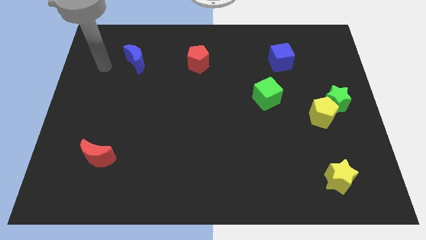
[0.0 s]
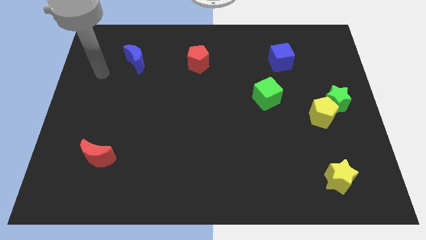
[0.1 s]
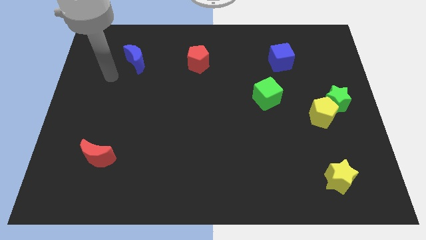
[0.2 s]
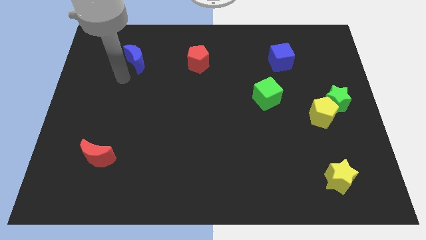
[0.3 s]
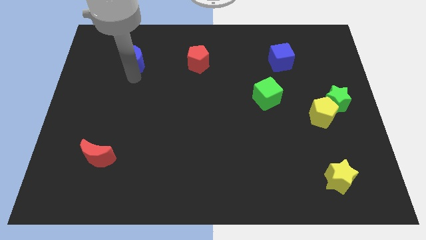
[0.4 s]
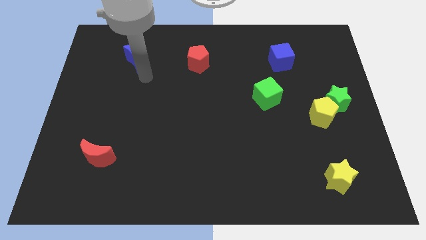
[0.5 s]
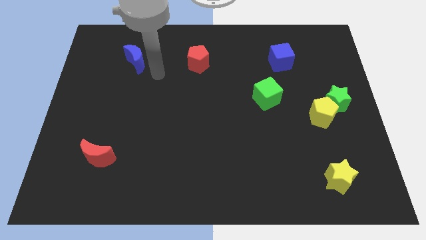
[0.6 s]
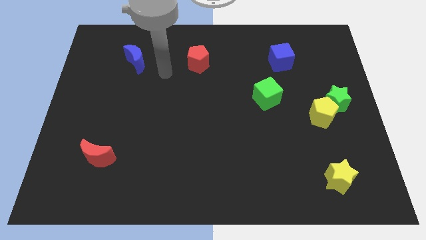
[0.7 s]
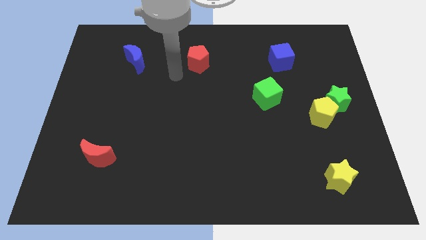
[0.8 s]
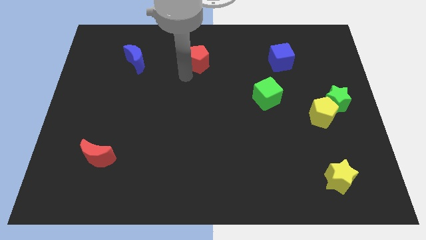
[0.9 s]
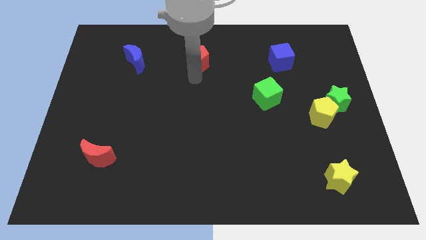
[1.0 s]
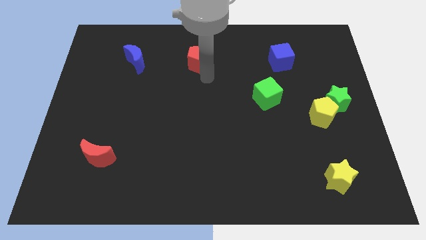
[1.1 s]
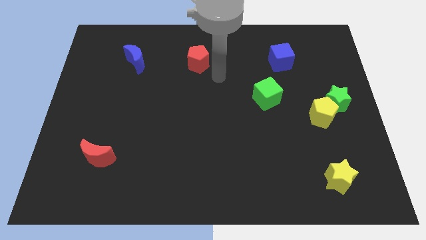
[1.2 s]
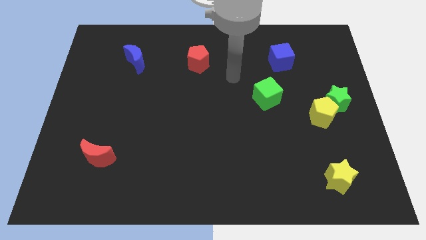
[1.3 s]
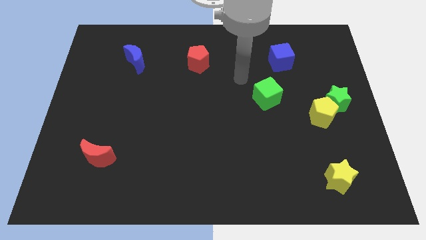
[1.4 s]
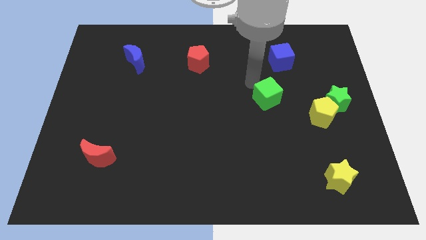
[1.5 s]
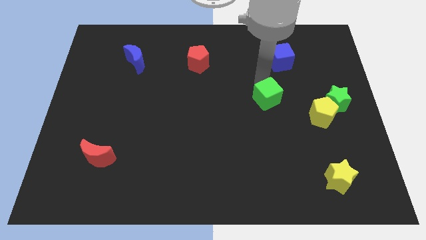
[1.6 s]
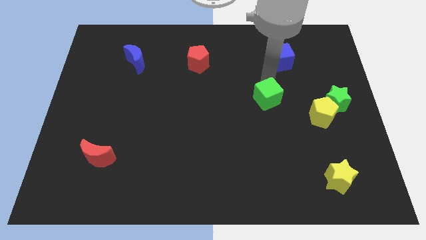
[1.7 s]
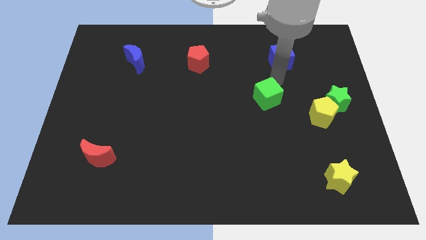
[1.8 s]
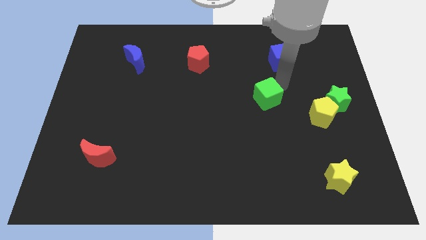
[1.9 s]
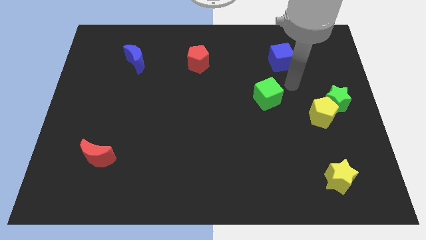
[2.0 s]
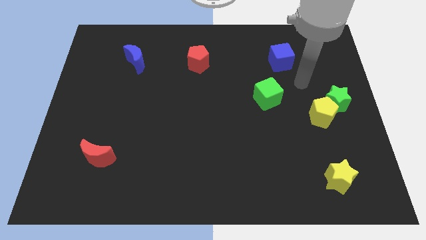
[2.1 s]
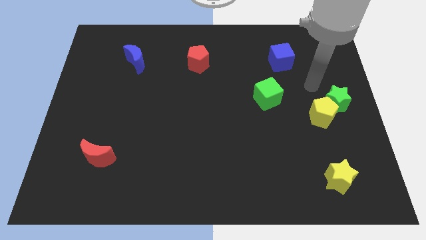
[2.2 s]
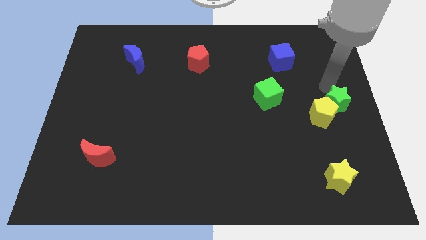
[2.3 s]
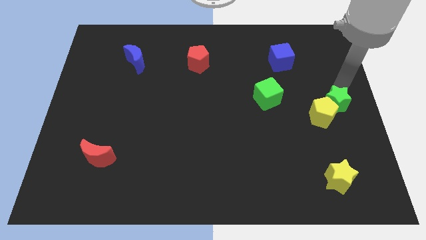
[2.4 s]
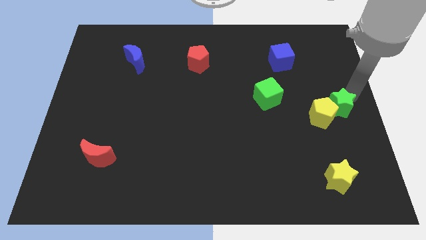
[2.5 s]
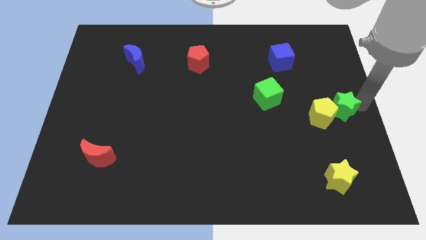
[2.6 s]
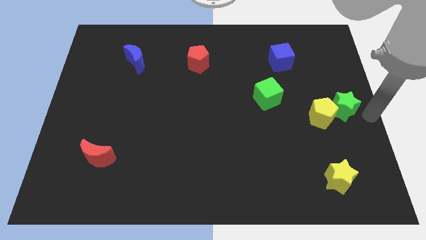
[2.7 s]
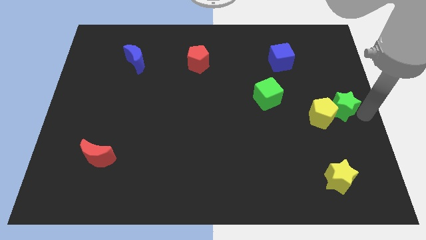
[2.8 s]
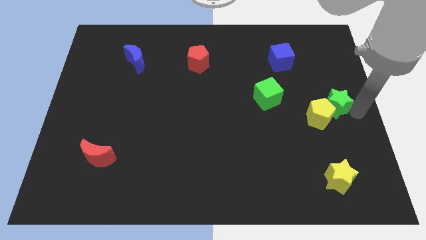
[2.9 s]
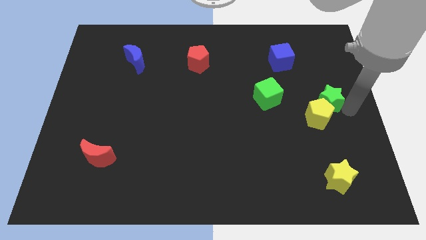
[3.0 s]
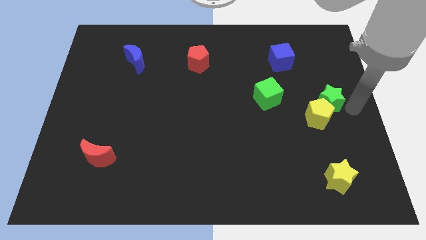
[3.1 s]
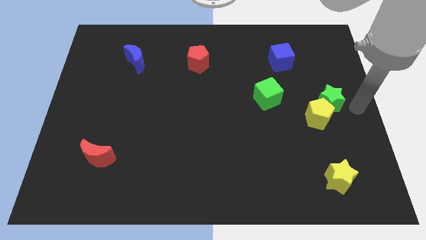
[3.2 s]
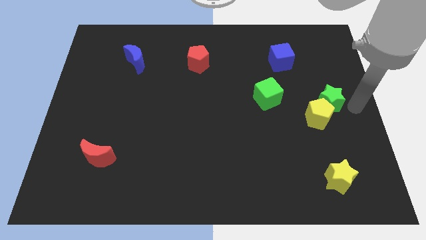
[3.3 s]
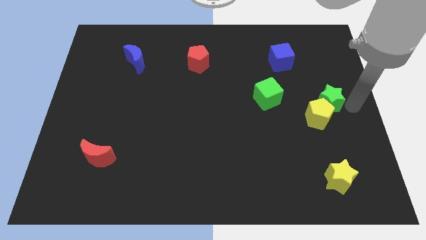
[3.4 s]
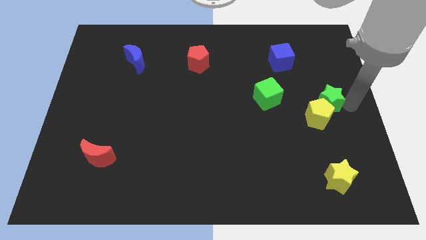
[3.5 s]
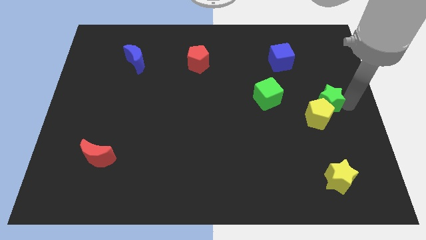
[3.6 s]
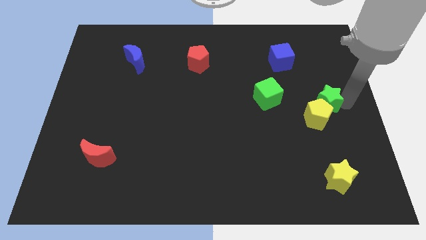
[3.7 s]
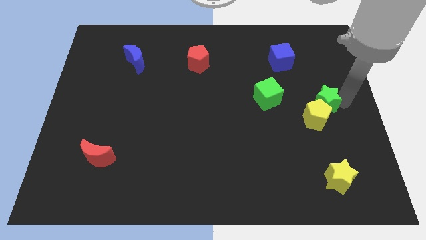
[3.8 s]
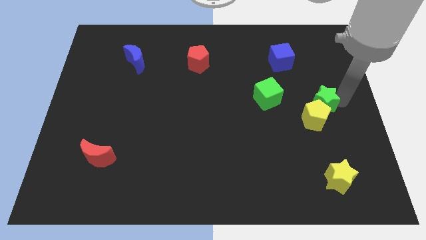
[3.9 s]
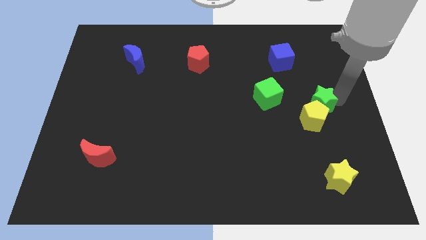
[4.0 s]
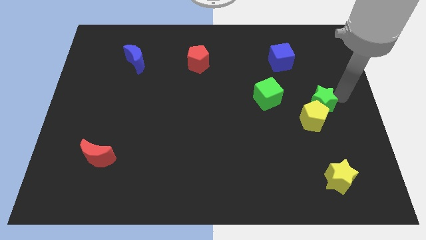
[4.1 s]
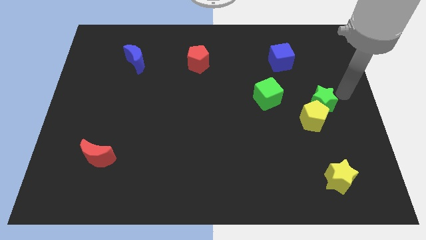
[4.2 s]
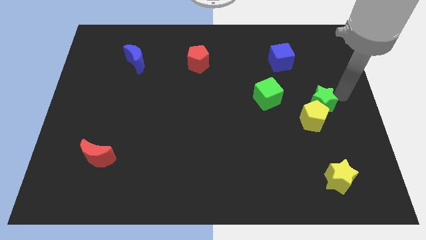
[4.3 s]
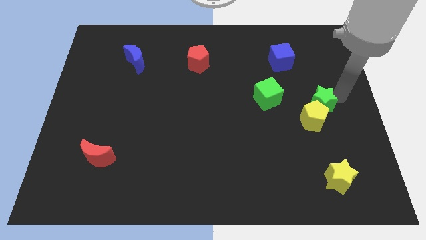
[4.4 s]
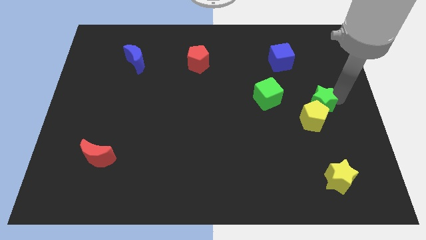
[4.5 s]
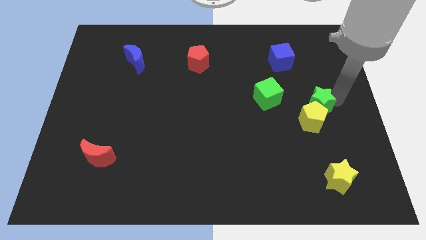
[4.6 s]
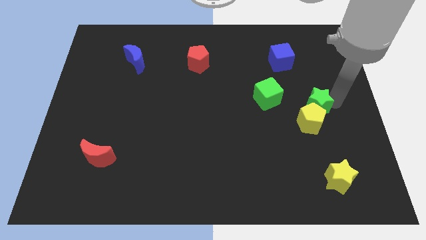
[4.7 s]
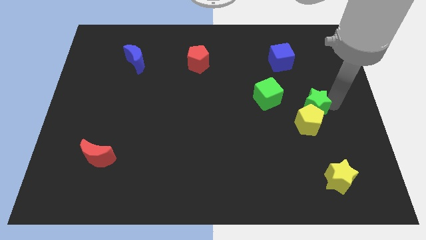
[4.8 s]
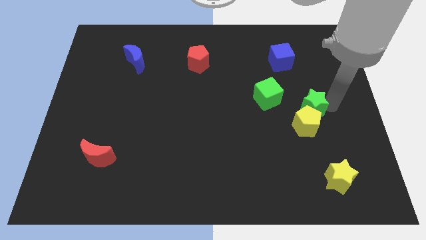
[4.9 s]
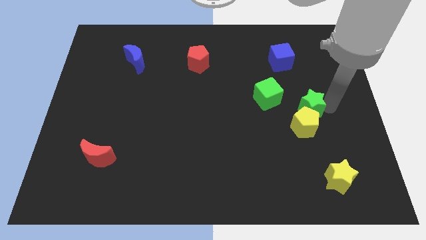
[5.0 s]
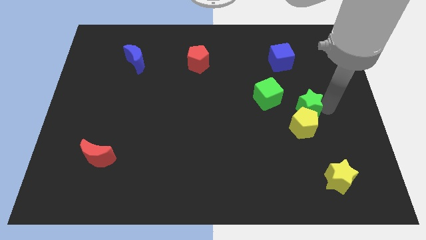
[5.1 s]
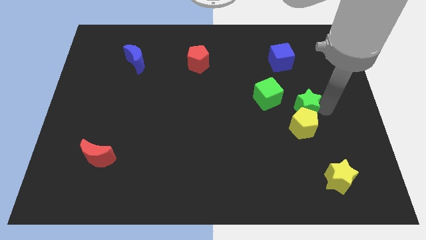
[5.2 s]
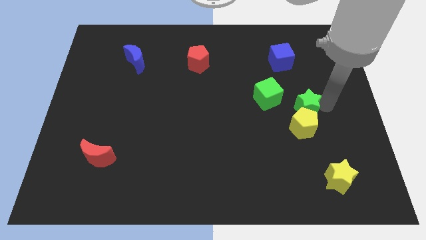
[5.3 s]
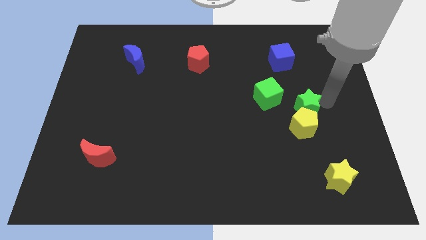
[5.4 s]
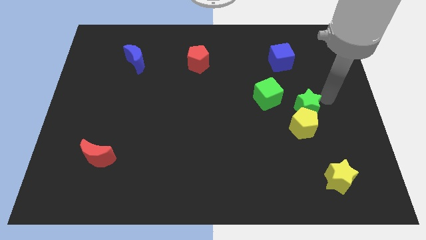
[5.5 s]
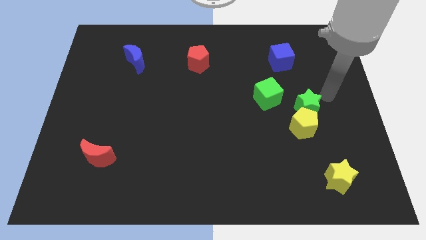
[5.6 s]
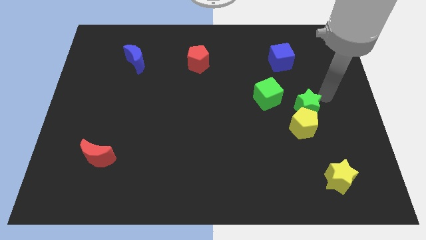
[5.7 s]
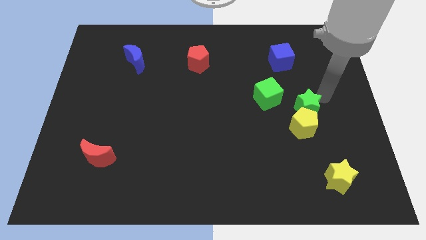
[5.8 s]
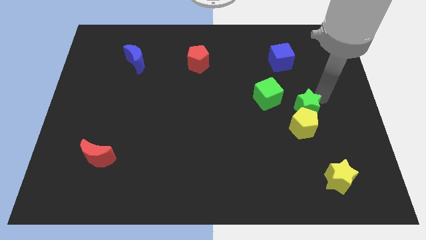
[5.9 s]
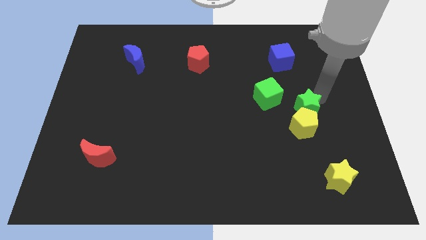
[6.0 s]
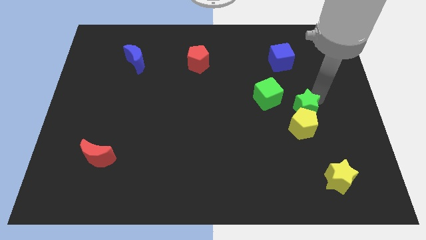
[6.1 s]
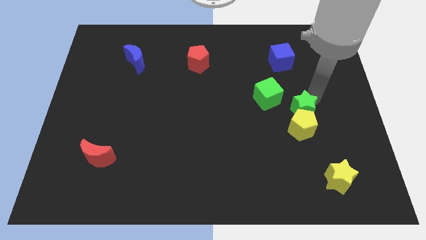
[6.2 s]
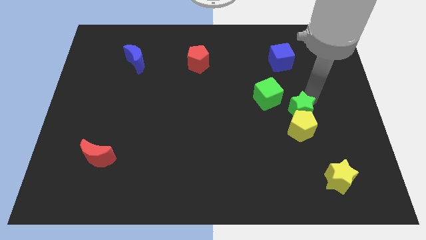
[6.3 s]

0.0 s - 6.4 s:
slide the green star a little down and to the left diagonally

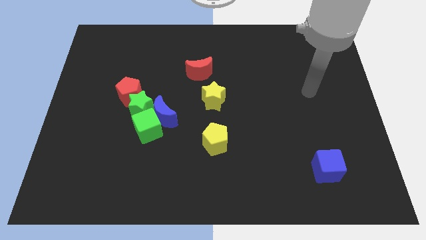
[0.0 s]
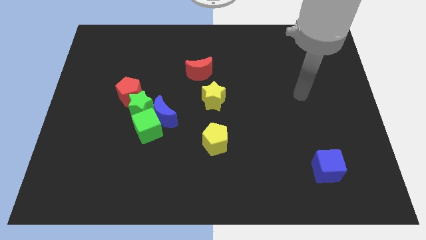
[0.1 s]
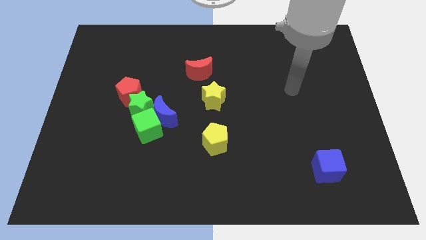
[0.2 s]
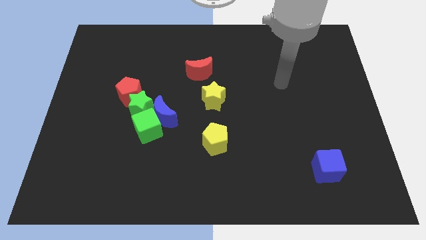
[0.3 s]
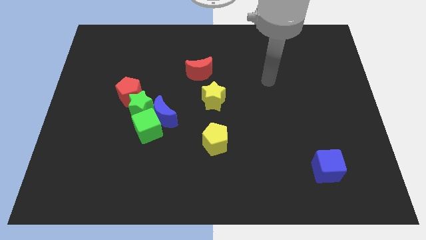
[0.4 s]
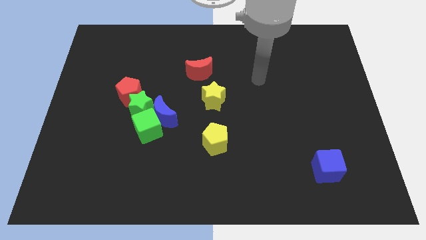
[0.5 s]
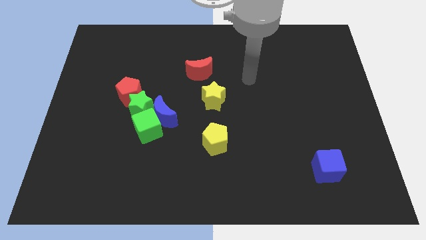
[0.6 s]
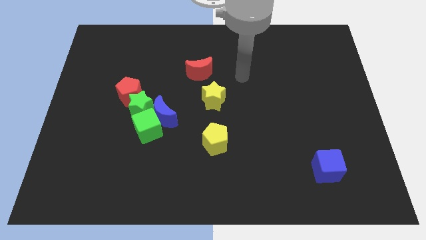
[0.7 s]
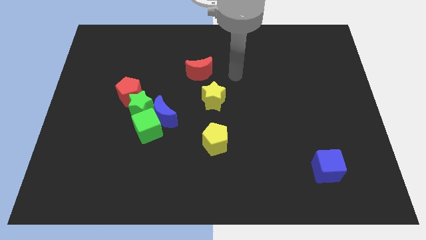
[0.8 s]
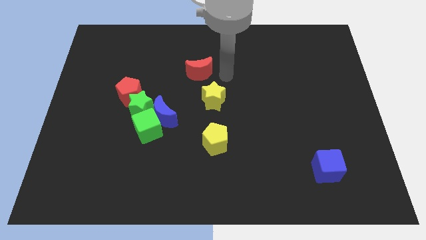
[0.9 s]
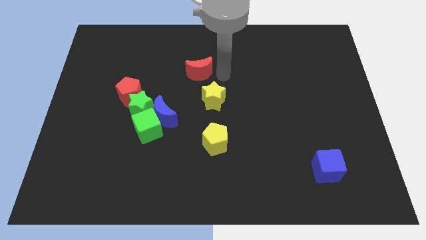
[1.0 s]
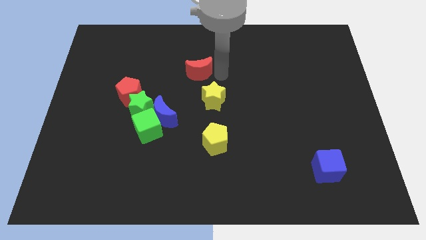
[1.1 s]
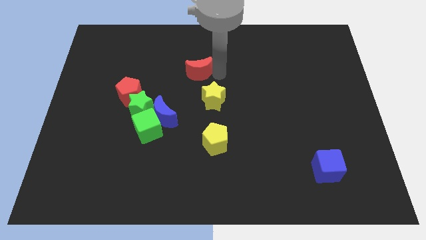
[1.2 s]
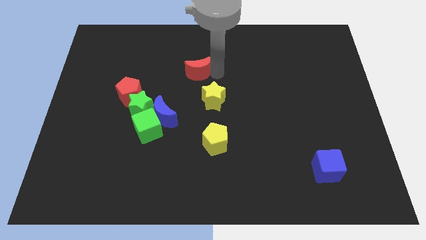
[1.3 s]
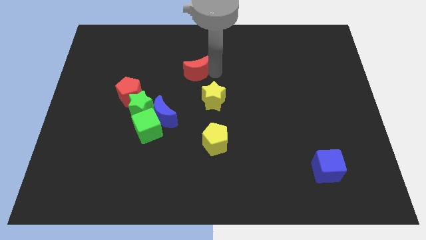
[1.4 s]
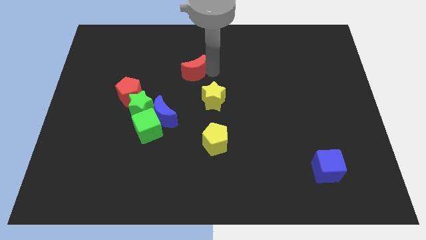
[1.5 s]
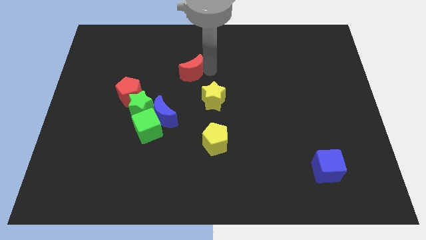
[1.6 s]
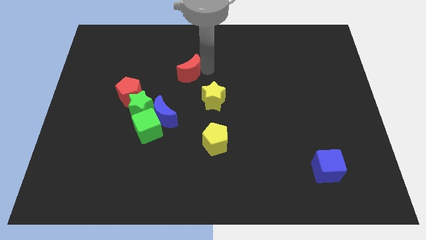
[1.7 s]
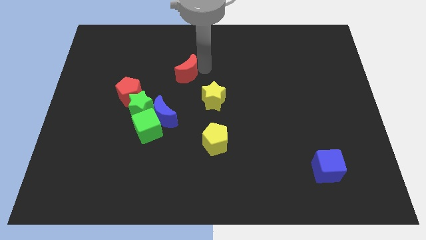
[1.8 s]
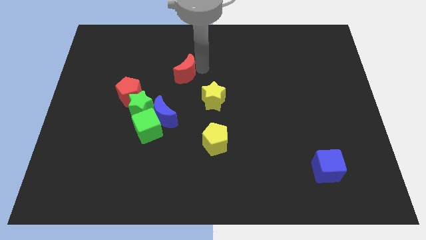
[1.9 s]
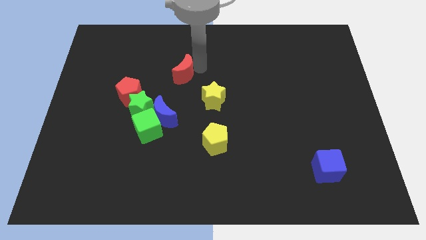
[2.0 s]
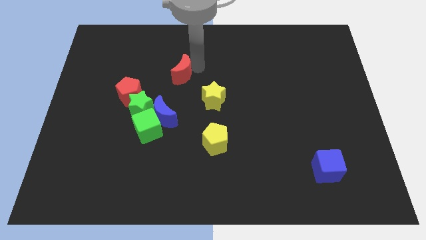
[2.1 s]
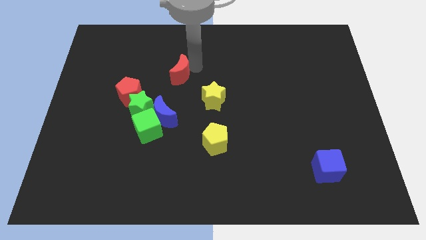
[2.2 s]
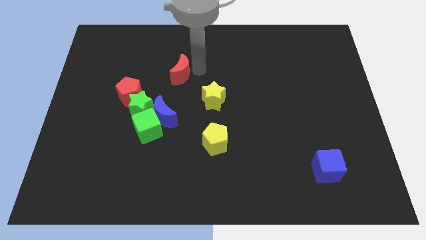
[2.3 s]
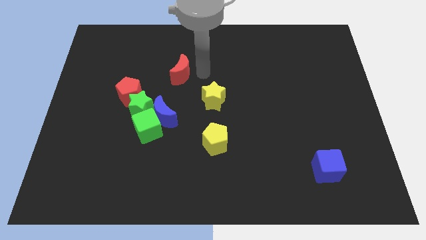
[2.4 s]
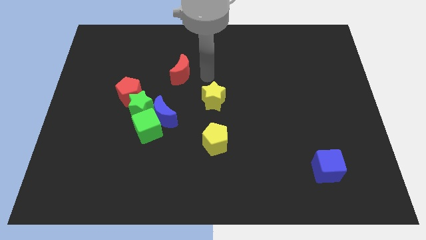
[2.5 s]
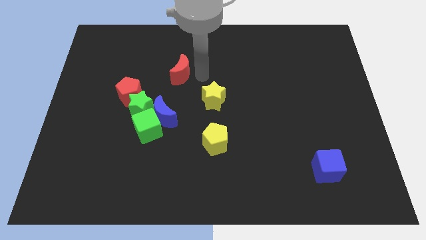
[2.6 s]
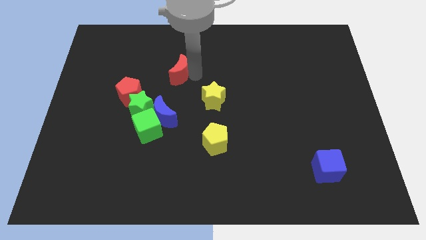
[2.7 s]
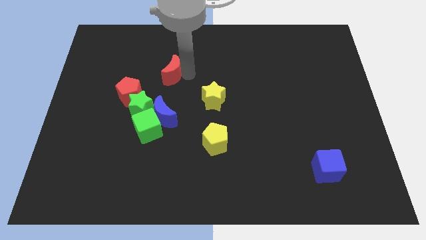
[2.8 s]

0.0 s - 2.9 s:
slide the red moon to the left somewhat
